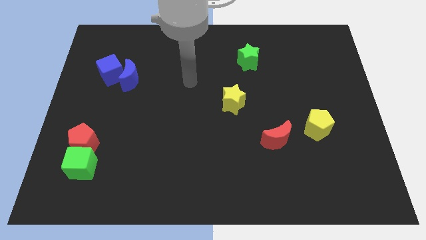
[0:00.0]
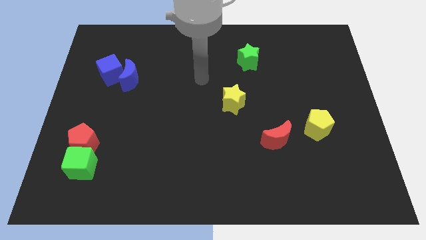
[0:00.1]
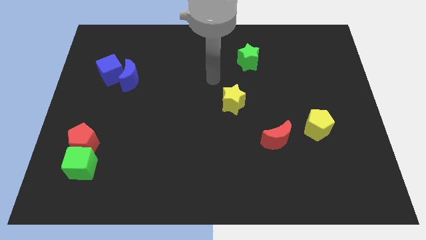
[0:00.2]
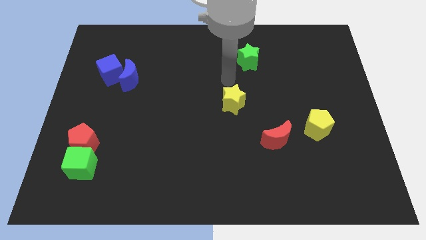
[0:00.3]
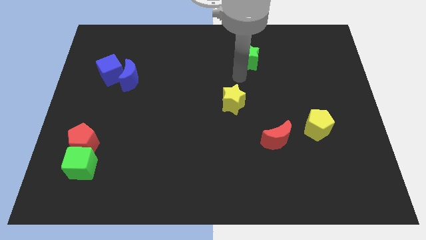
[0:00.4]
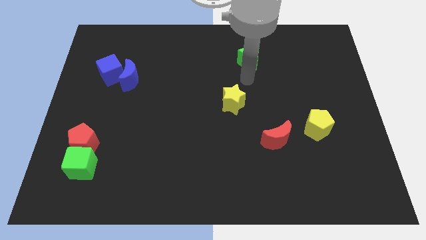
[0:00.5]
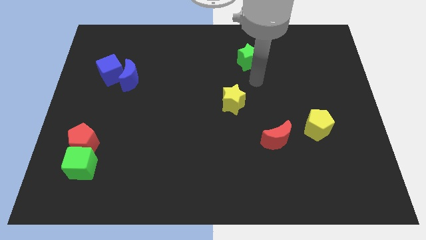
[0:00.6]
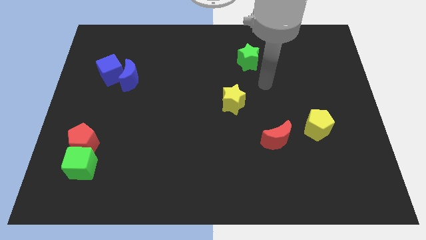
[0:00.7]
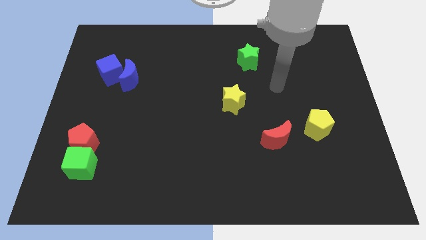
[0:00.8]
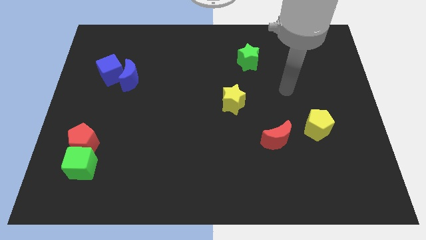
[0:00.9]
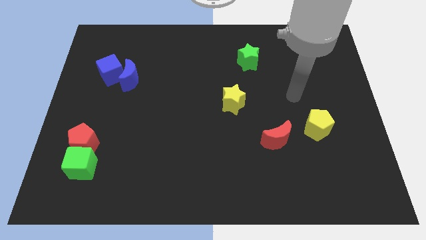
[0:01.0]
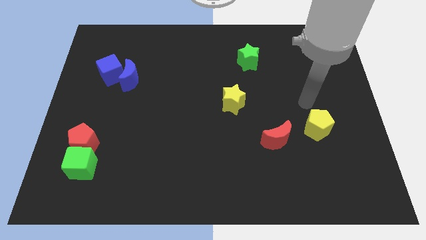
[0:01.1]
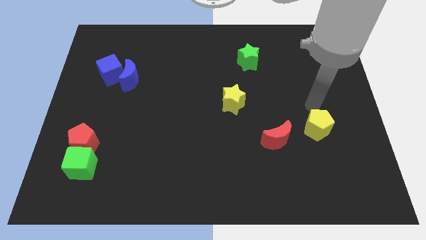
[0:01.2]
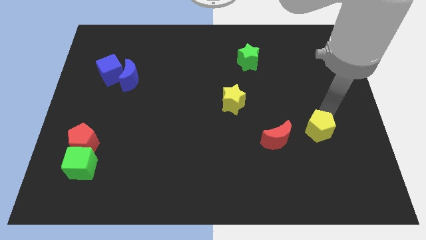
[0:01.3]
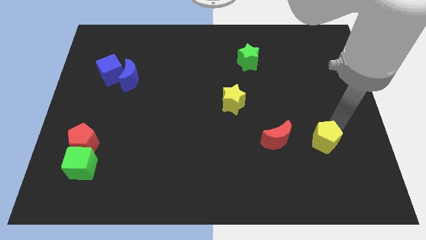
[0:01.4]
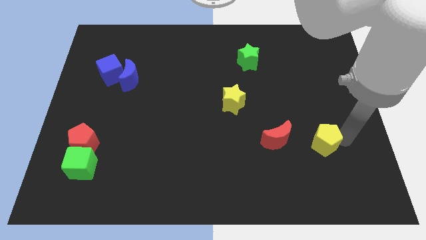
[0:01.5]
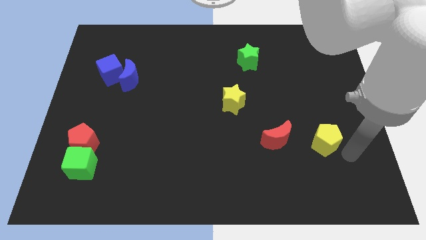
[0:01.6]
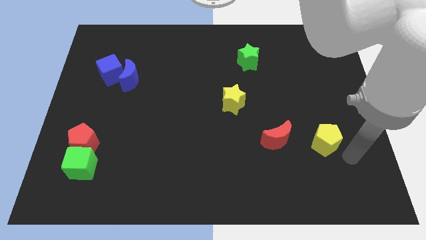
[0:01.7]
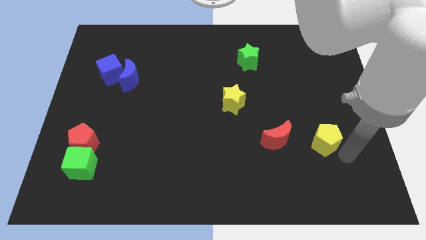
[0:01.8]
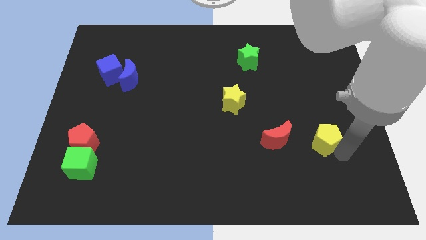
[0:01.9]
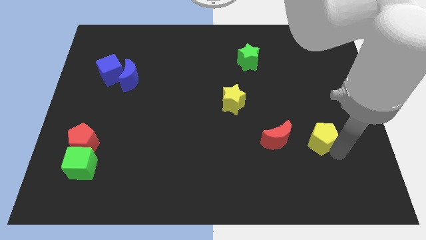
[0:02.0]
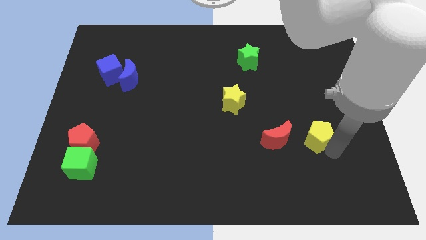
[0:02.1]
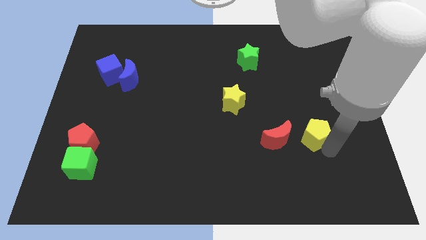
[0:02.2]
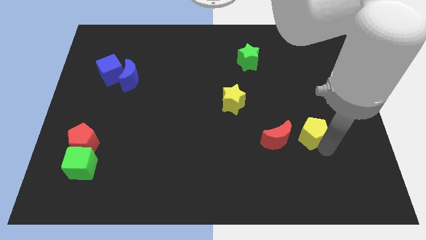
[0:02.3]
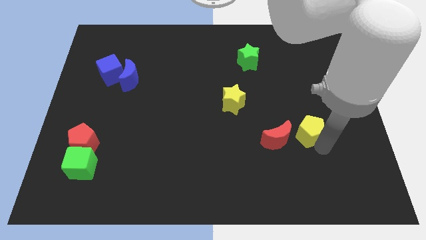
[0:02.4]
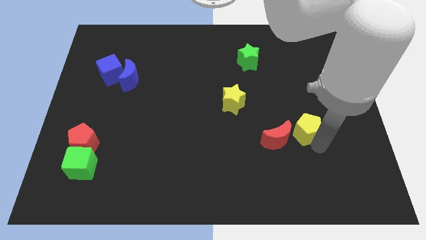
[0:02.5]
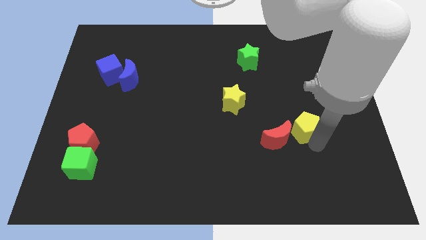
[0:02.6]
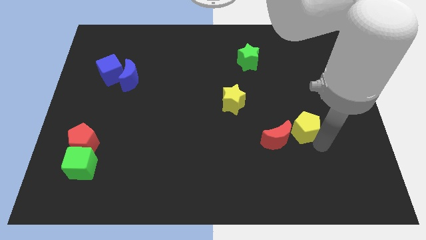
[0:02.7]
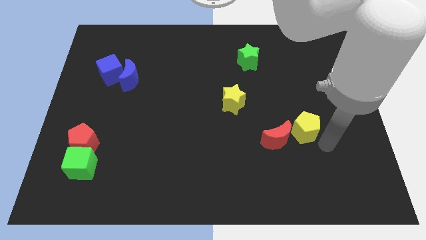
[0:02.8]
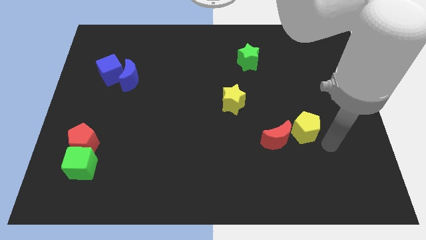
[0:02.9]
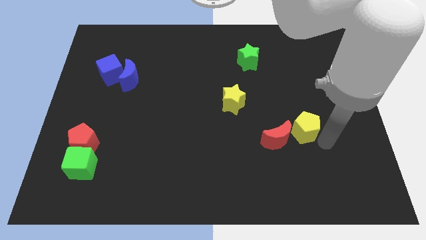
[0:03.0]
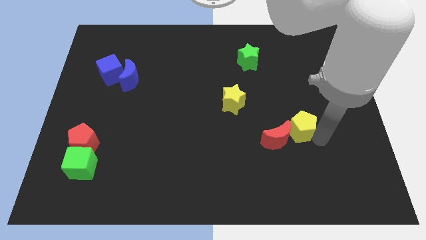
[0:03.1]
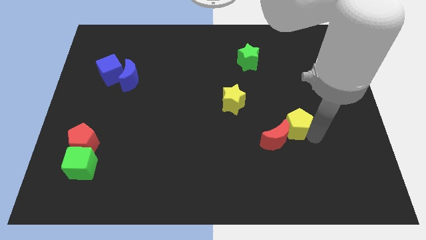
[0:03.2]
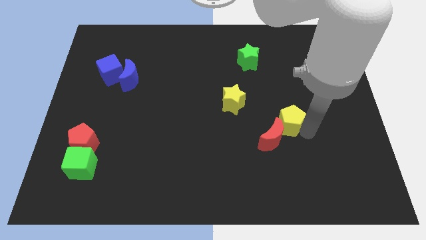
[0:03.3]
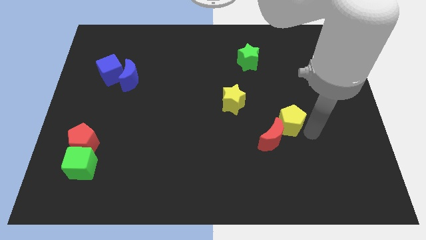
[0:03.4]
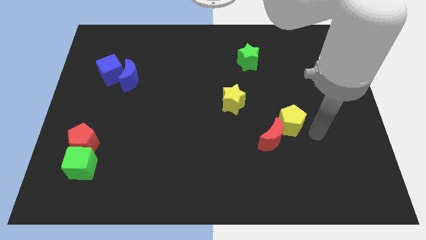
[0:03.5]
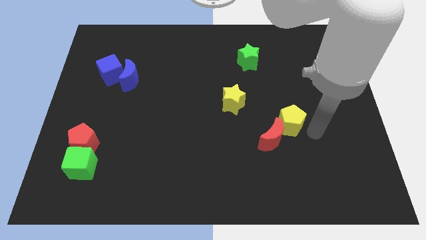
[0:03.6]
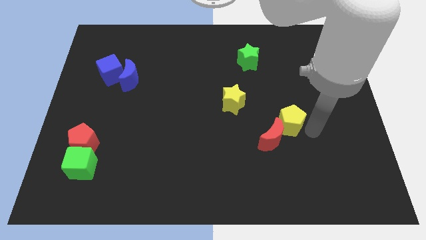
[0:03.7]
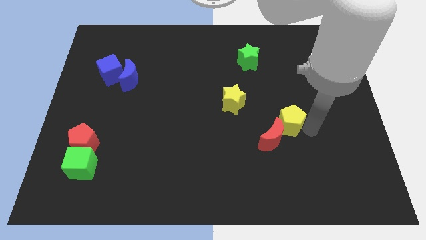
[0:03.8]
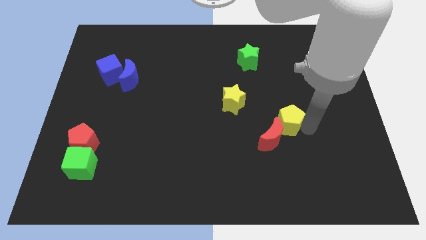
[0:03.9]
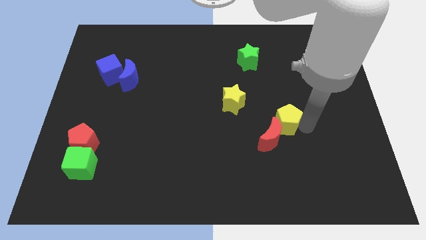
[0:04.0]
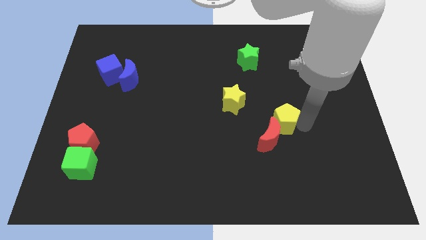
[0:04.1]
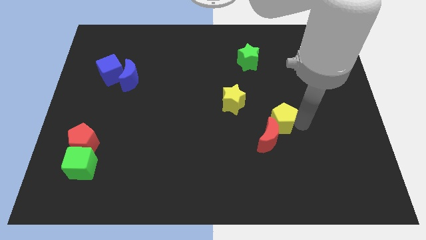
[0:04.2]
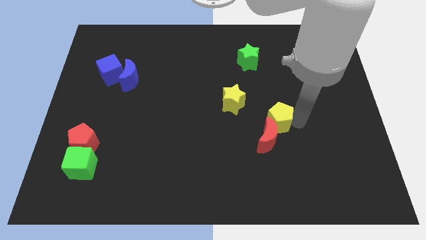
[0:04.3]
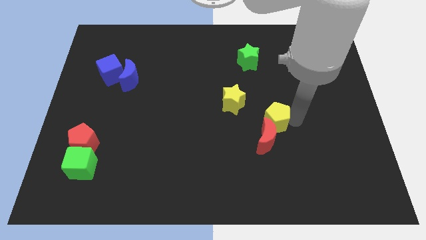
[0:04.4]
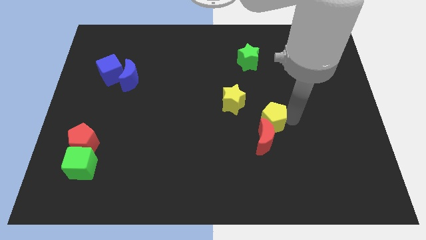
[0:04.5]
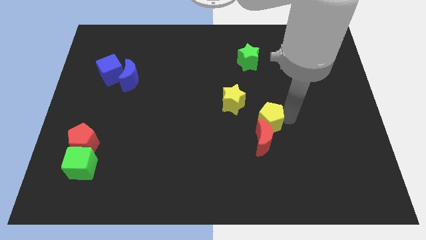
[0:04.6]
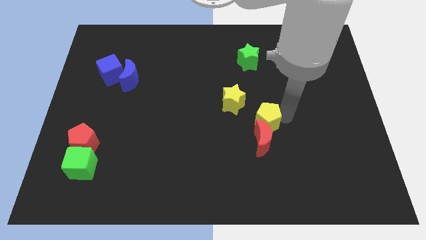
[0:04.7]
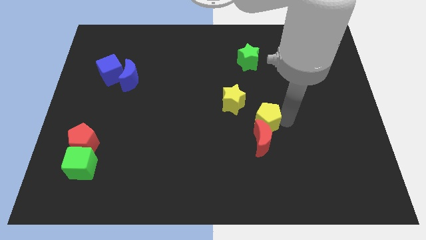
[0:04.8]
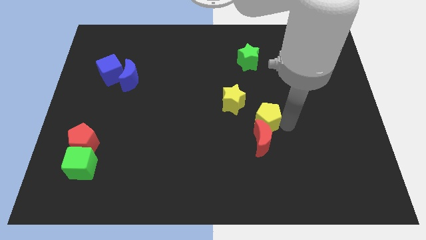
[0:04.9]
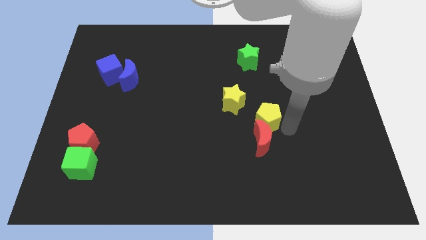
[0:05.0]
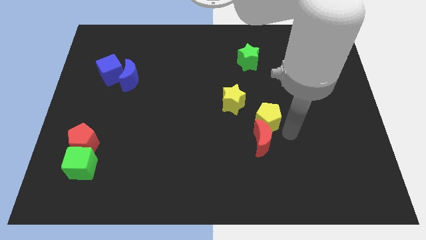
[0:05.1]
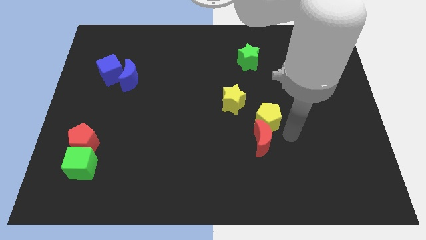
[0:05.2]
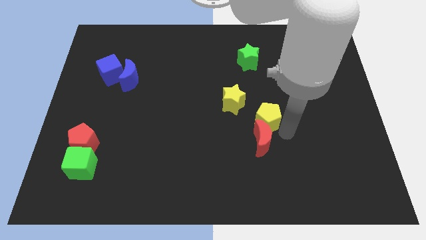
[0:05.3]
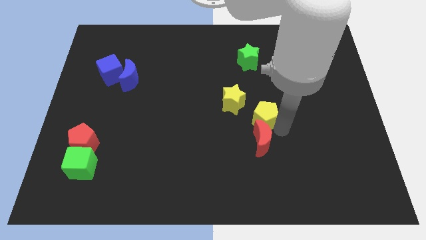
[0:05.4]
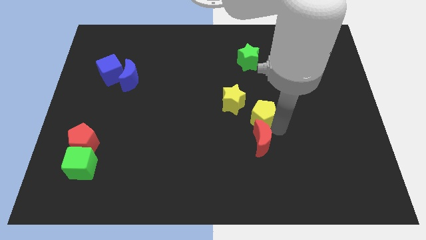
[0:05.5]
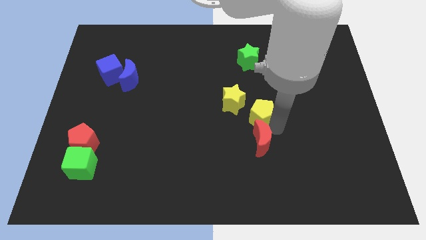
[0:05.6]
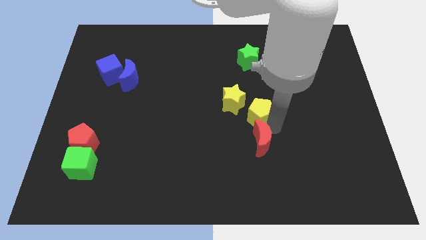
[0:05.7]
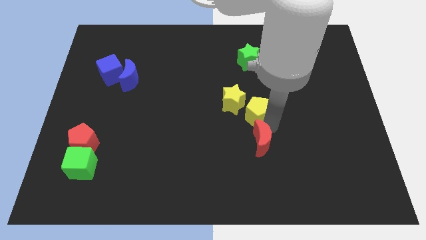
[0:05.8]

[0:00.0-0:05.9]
put the yellow pentagon towards the yellow star

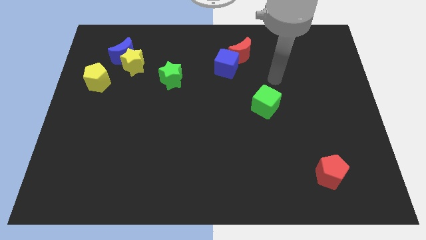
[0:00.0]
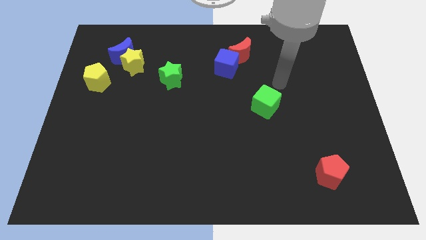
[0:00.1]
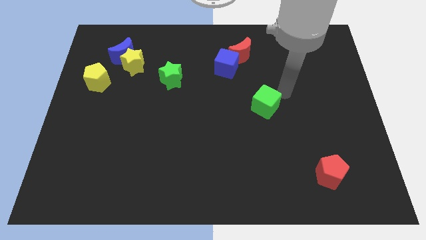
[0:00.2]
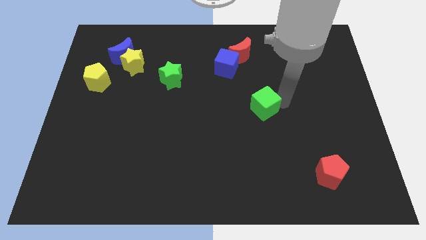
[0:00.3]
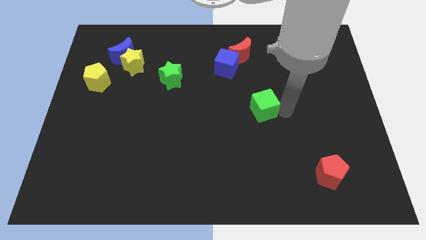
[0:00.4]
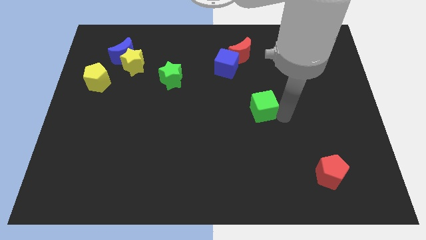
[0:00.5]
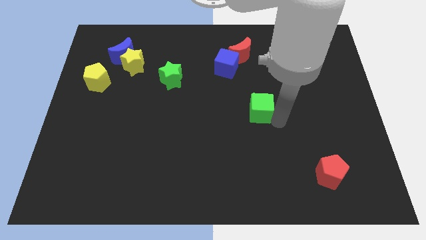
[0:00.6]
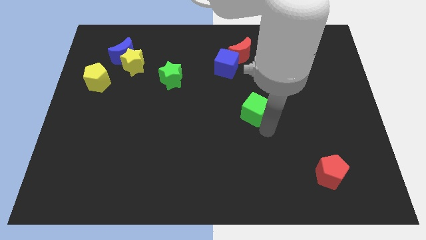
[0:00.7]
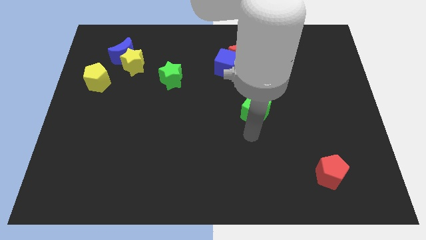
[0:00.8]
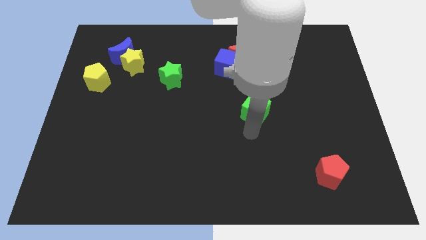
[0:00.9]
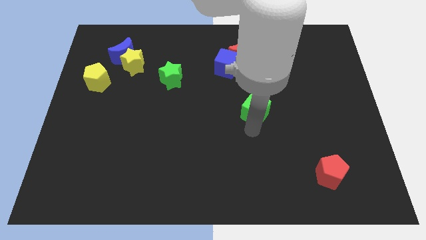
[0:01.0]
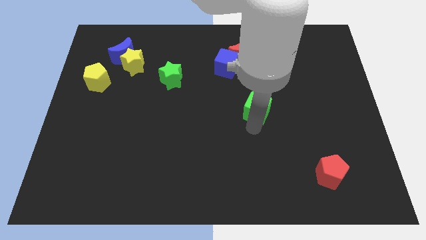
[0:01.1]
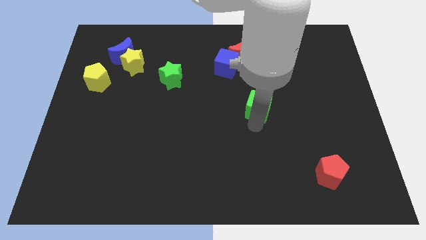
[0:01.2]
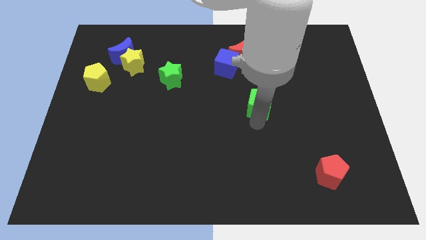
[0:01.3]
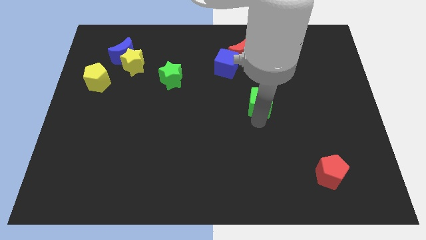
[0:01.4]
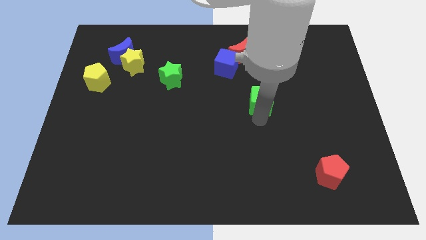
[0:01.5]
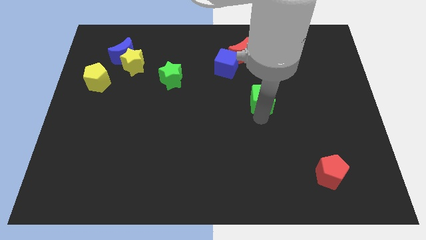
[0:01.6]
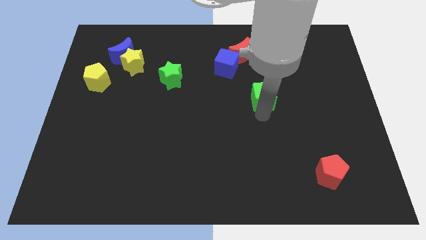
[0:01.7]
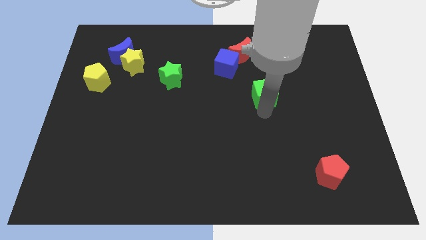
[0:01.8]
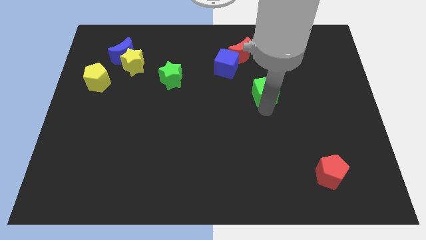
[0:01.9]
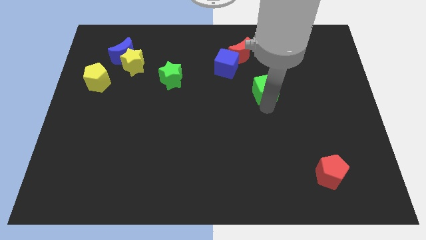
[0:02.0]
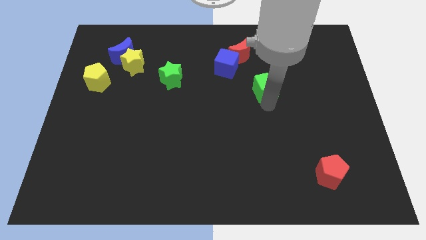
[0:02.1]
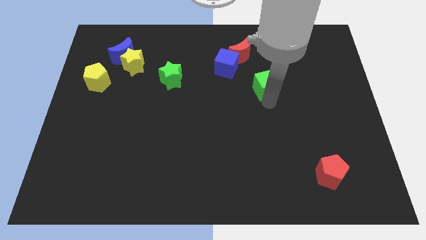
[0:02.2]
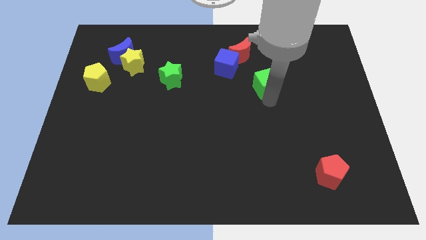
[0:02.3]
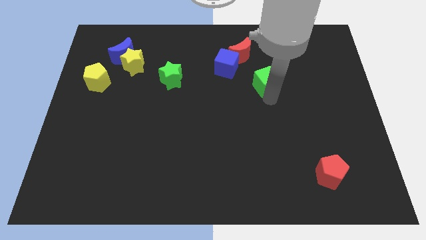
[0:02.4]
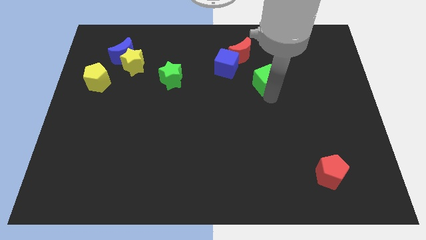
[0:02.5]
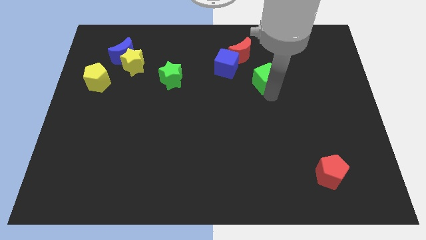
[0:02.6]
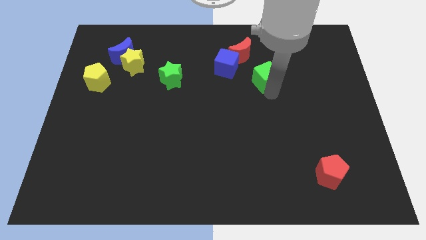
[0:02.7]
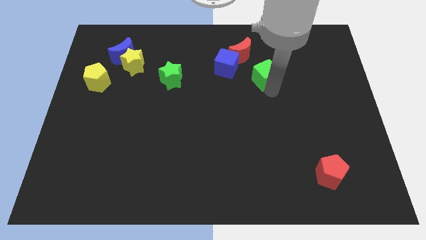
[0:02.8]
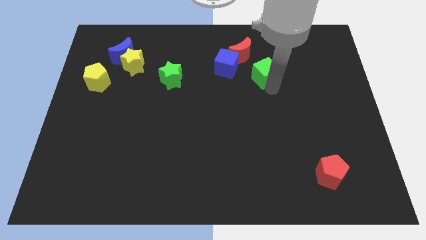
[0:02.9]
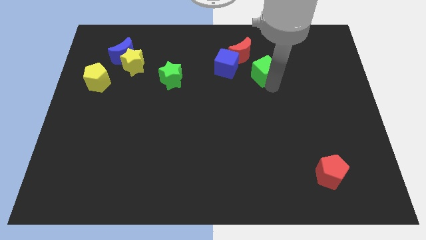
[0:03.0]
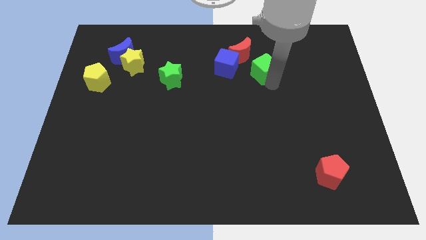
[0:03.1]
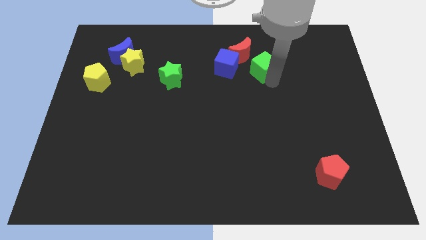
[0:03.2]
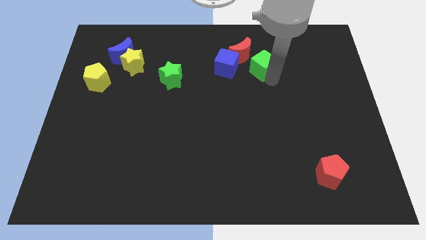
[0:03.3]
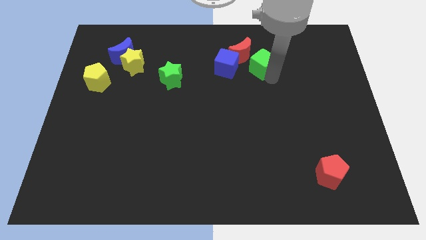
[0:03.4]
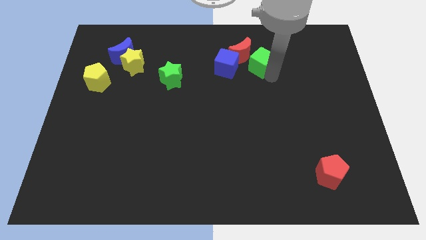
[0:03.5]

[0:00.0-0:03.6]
slide the green cube close to the red moon
